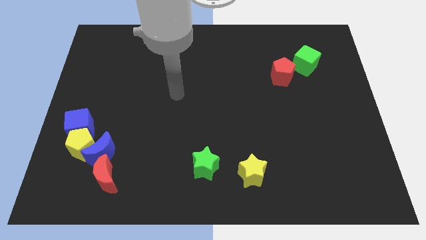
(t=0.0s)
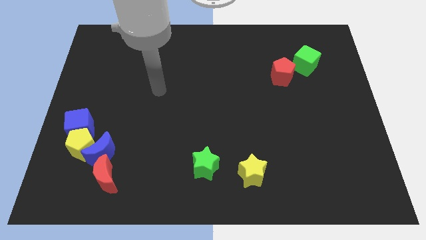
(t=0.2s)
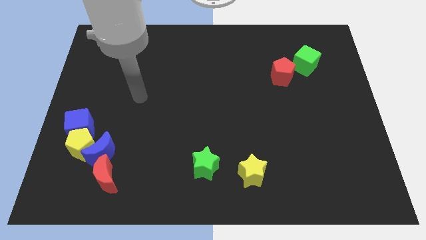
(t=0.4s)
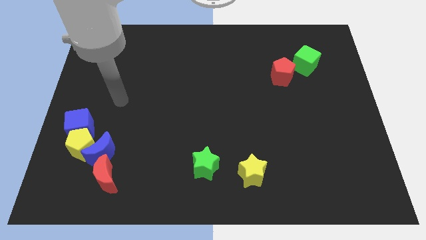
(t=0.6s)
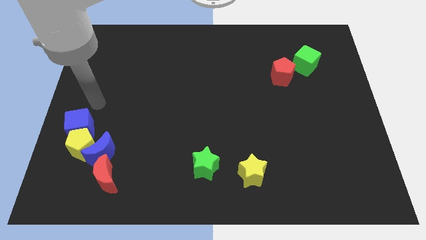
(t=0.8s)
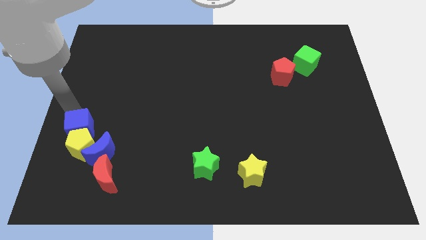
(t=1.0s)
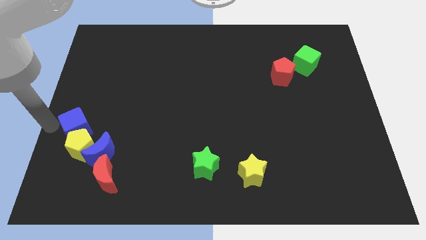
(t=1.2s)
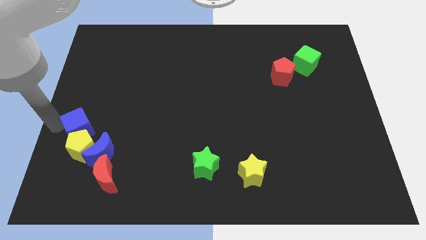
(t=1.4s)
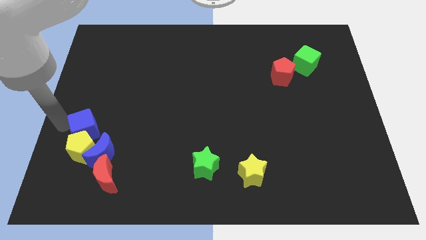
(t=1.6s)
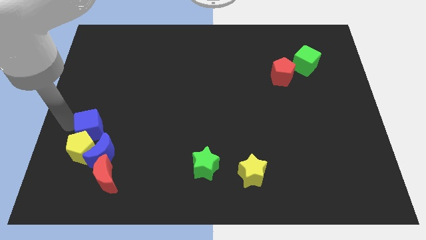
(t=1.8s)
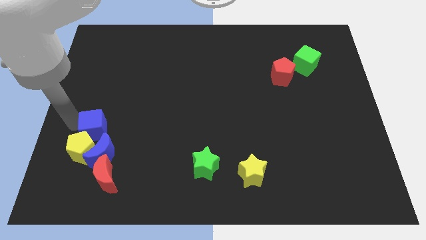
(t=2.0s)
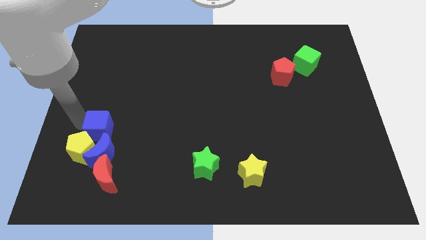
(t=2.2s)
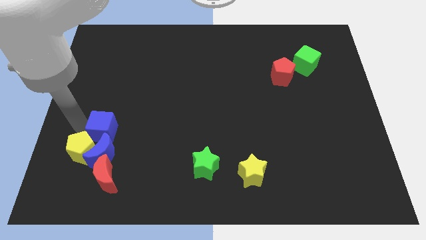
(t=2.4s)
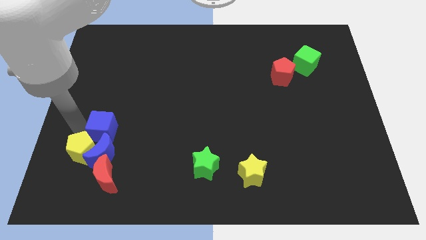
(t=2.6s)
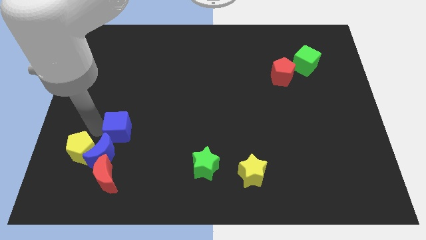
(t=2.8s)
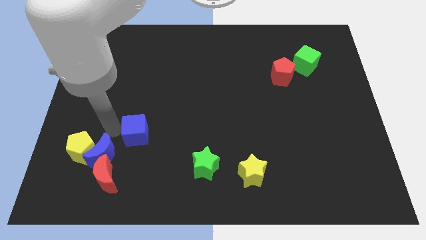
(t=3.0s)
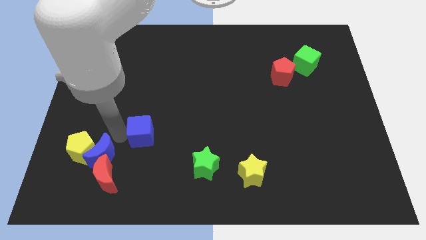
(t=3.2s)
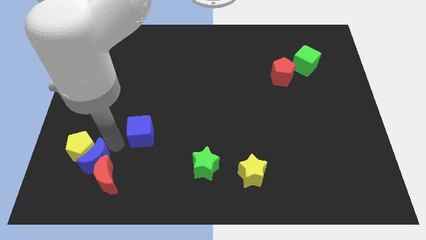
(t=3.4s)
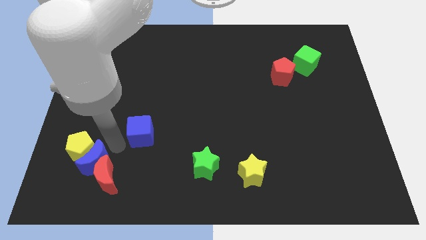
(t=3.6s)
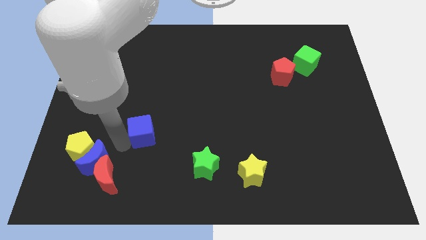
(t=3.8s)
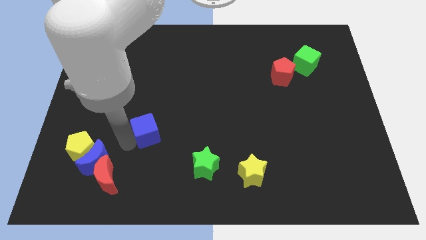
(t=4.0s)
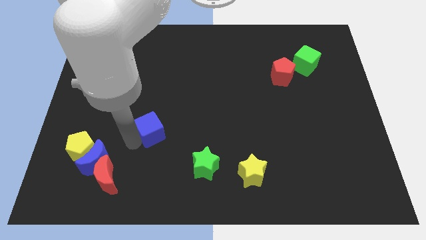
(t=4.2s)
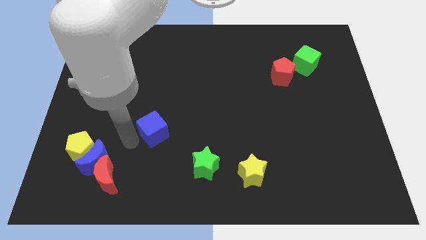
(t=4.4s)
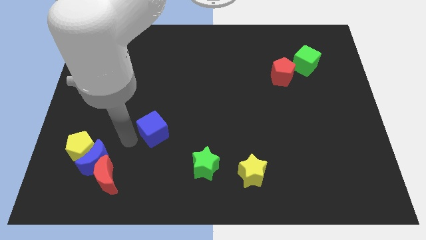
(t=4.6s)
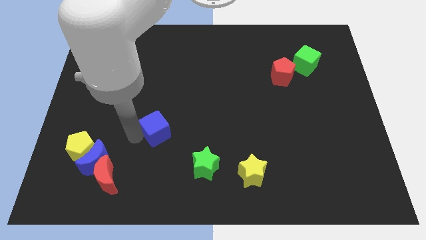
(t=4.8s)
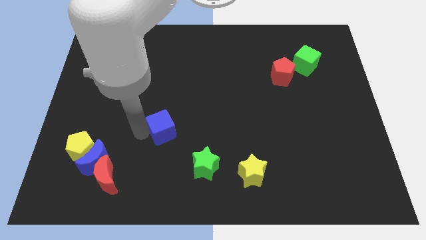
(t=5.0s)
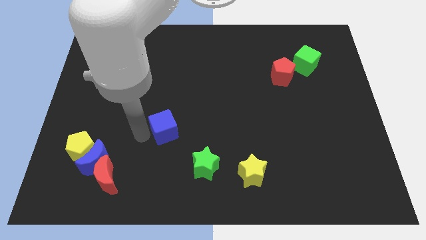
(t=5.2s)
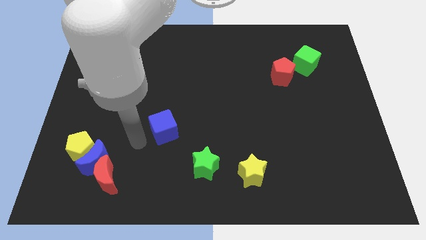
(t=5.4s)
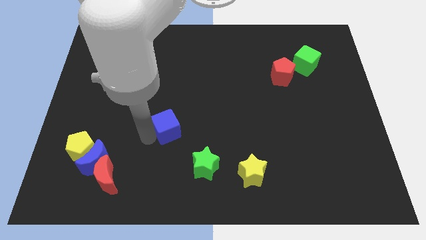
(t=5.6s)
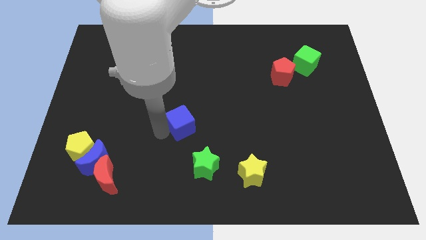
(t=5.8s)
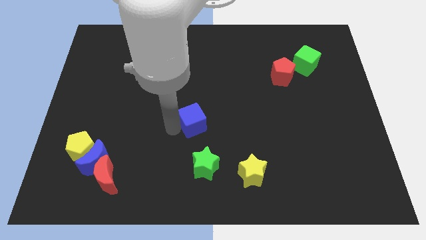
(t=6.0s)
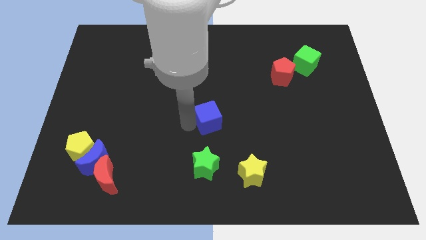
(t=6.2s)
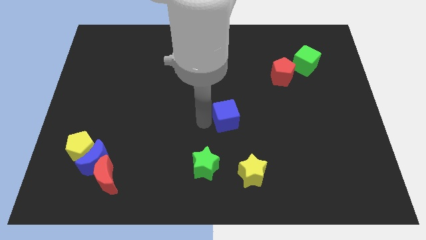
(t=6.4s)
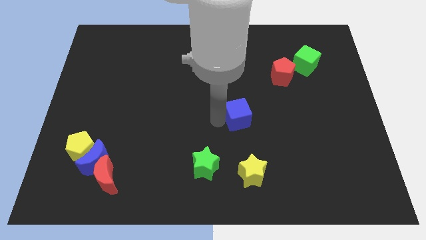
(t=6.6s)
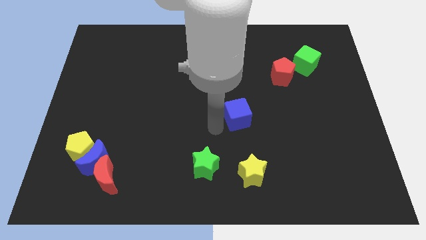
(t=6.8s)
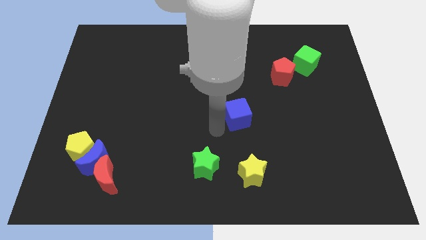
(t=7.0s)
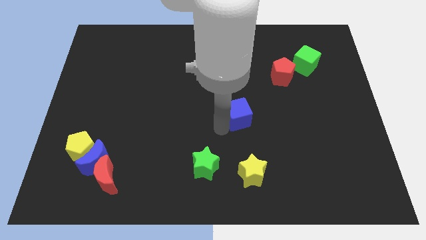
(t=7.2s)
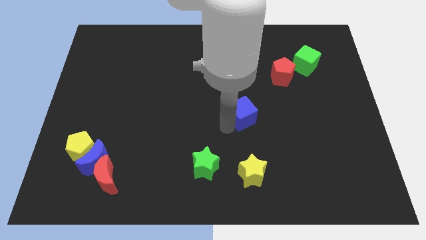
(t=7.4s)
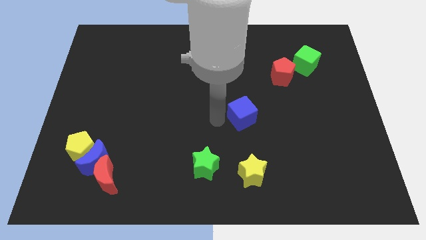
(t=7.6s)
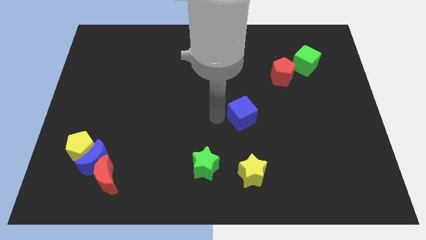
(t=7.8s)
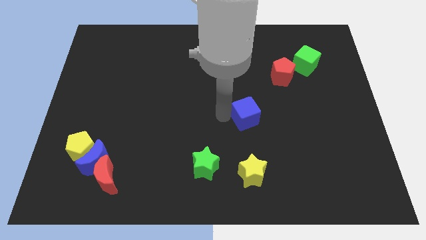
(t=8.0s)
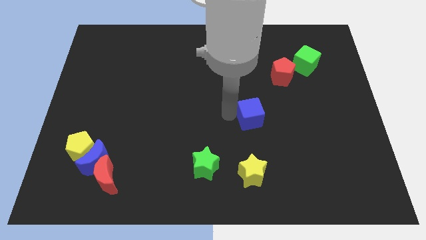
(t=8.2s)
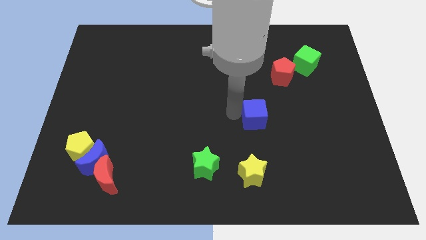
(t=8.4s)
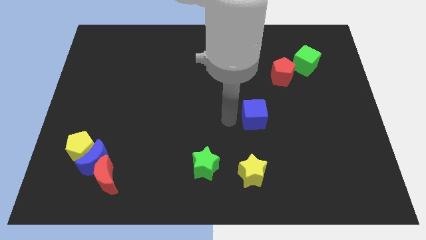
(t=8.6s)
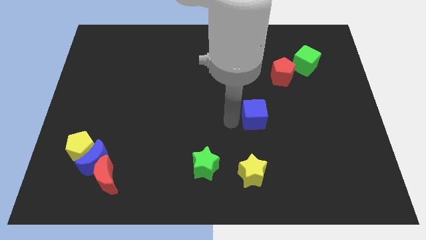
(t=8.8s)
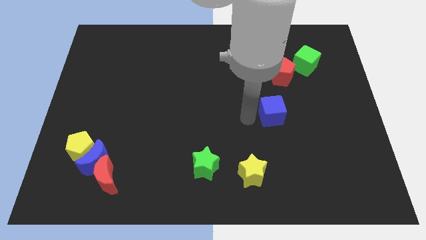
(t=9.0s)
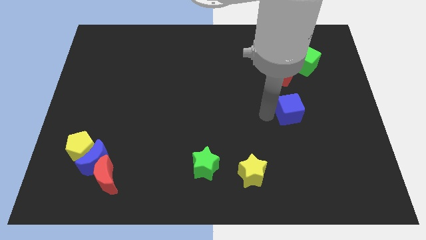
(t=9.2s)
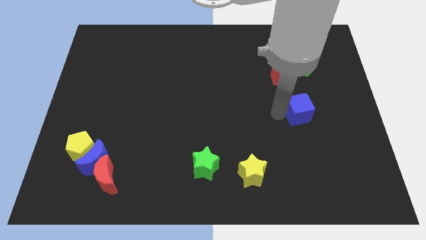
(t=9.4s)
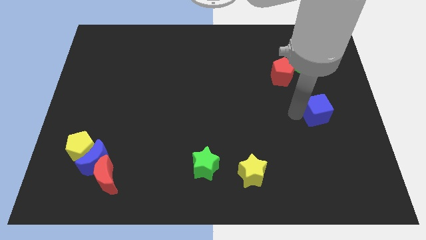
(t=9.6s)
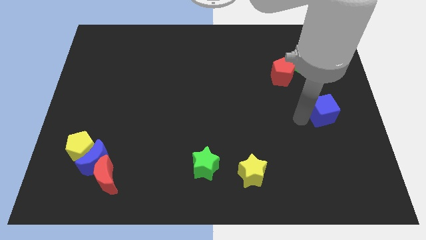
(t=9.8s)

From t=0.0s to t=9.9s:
push the blue cube to the right side
